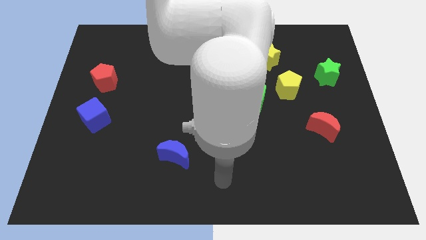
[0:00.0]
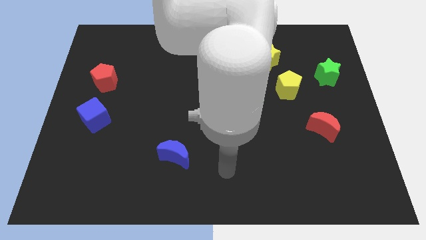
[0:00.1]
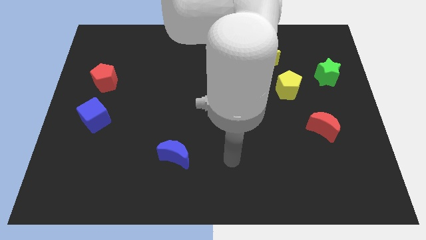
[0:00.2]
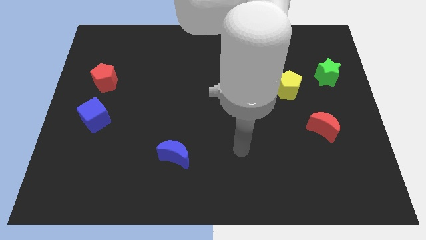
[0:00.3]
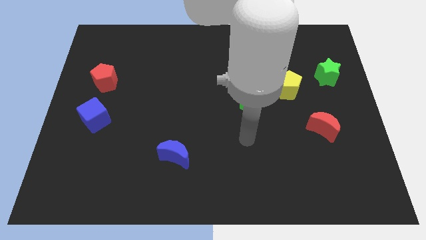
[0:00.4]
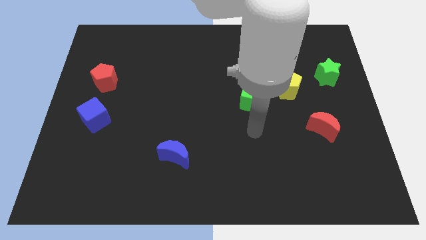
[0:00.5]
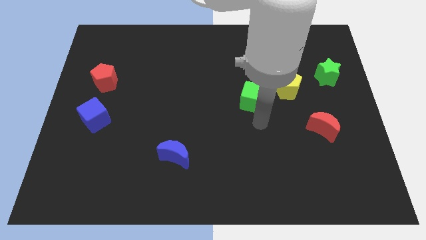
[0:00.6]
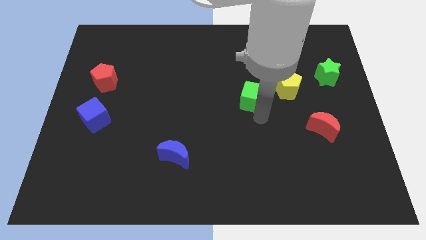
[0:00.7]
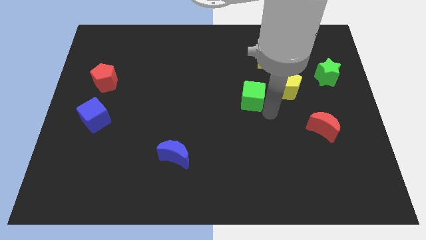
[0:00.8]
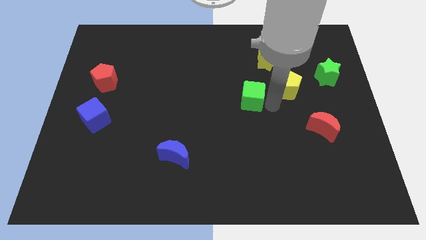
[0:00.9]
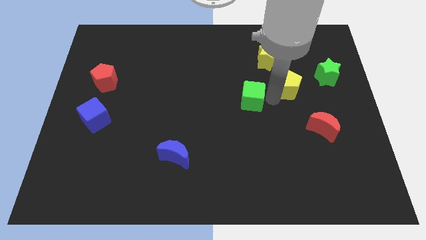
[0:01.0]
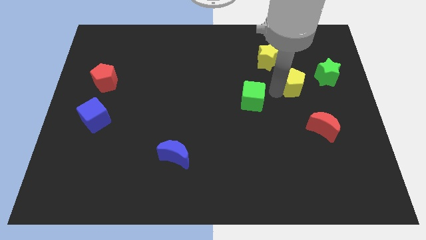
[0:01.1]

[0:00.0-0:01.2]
pull the green cube apart from the yellow pentagon

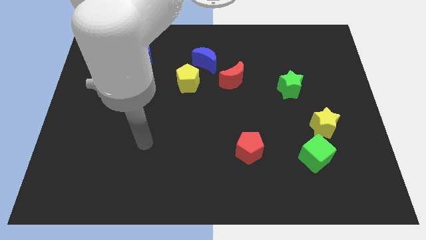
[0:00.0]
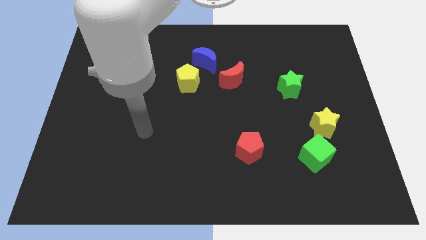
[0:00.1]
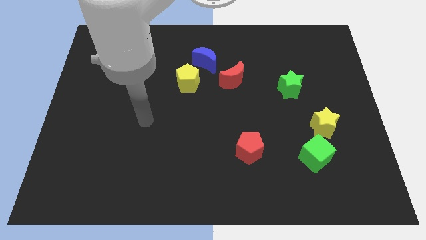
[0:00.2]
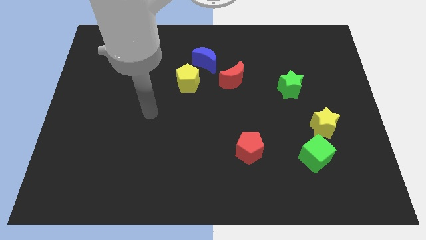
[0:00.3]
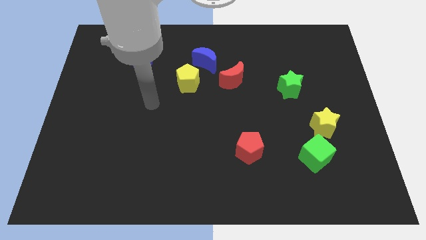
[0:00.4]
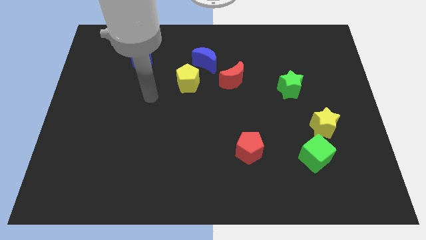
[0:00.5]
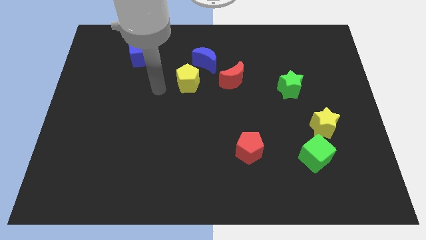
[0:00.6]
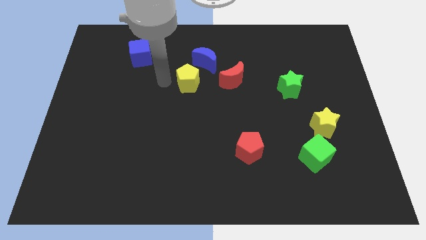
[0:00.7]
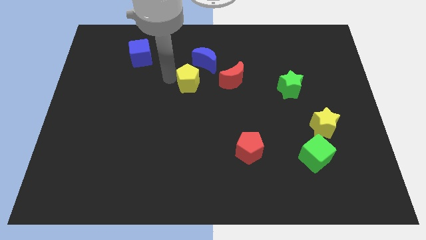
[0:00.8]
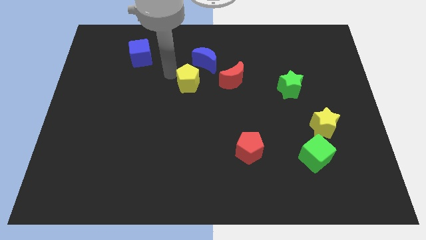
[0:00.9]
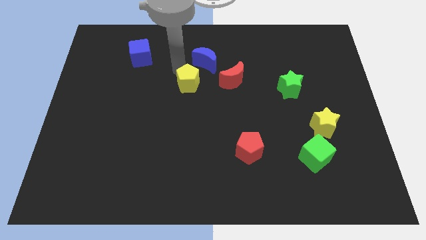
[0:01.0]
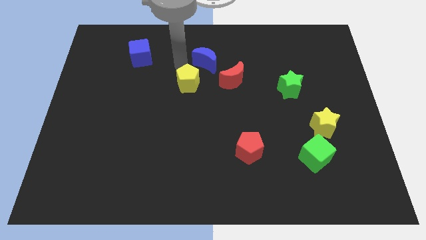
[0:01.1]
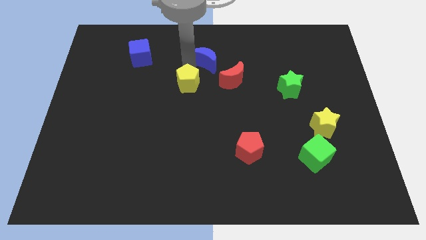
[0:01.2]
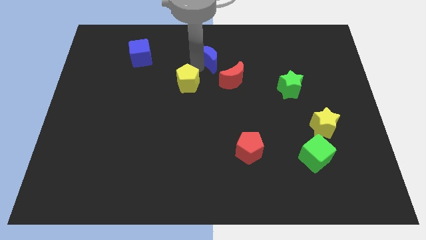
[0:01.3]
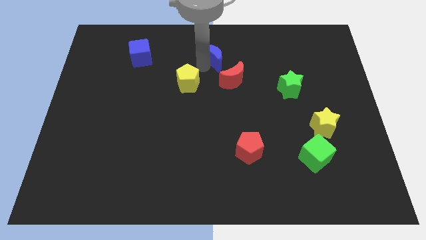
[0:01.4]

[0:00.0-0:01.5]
separate the yellow pentagon from the blue moon

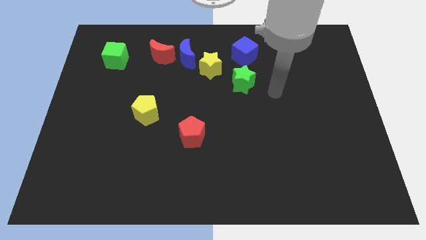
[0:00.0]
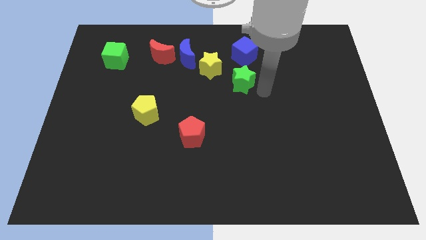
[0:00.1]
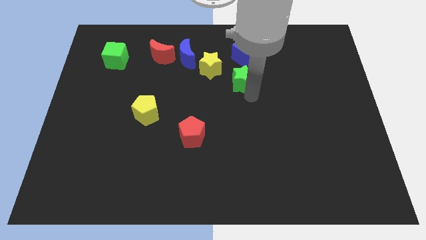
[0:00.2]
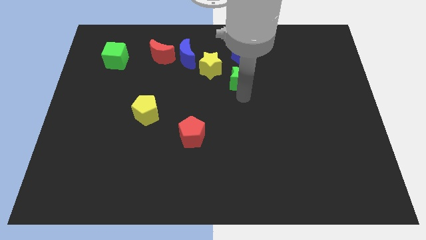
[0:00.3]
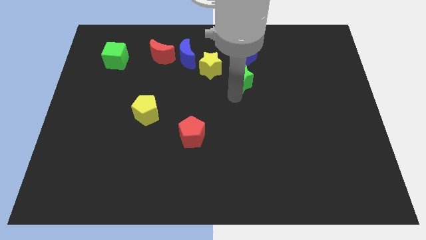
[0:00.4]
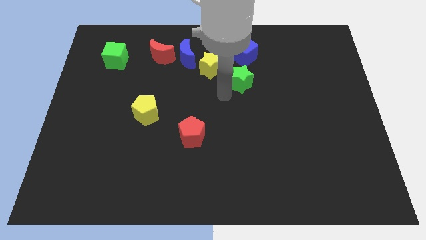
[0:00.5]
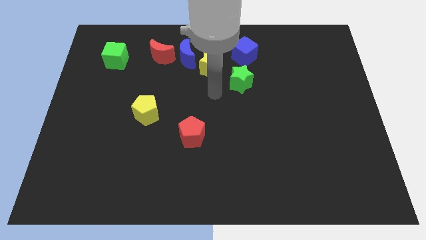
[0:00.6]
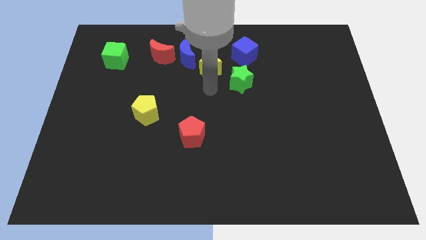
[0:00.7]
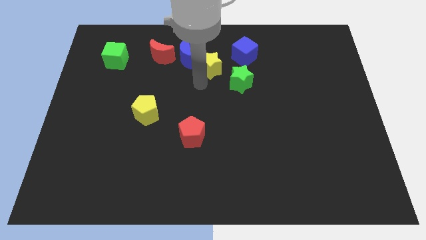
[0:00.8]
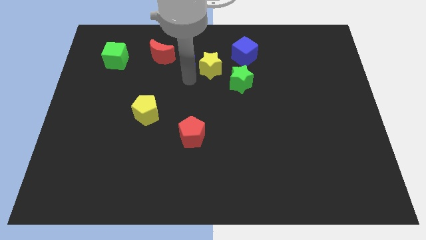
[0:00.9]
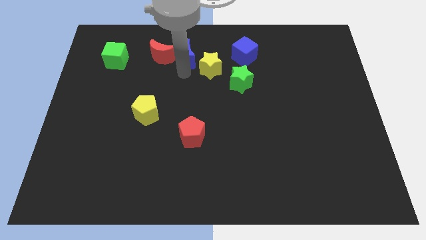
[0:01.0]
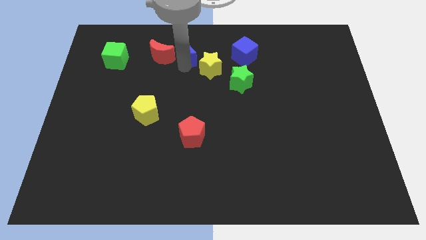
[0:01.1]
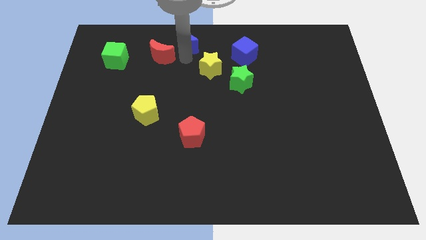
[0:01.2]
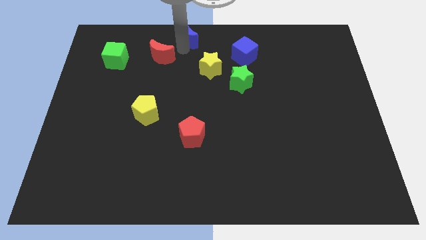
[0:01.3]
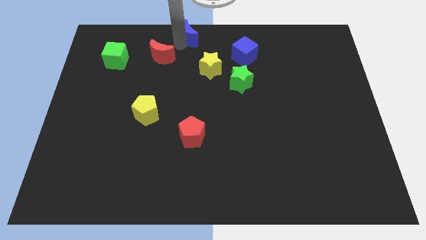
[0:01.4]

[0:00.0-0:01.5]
separate the red moon from the blue moon

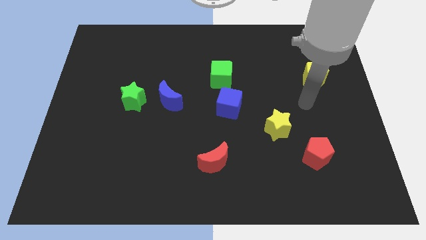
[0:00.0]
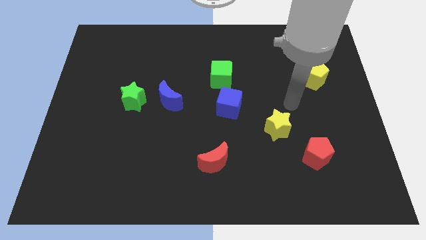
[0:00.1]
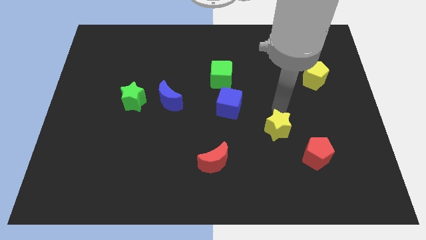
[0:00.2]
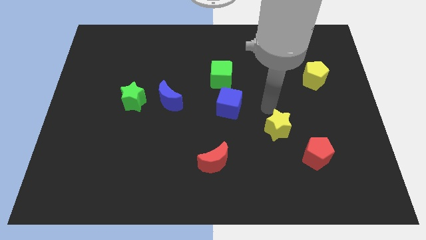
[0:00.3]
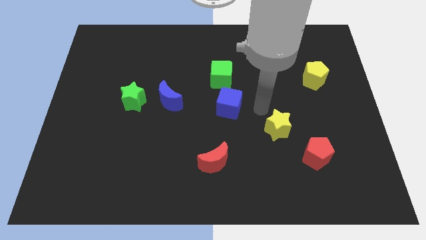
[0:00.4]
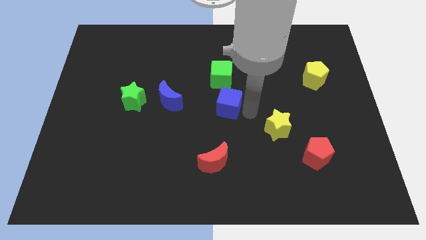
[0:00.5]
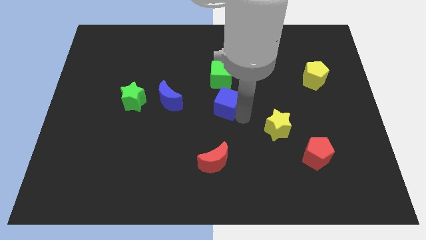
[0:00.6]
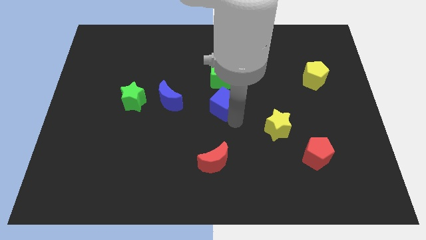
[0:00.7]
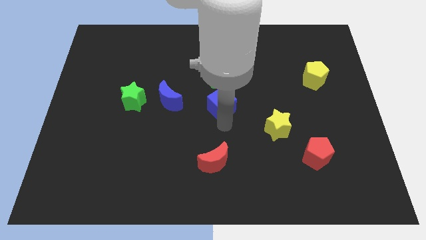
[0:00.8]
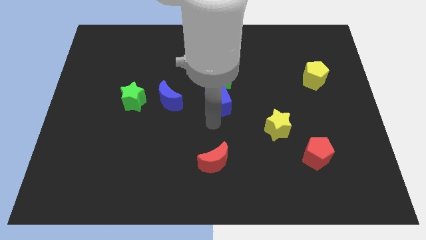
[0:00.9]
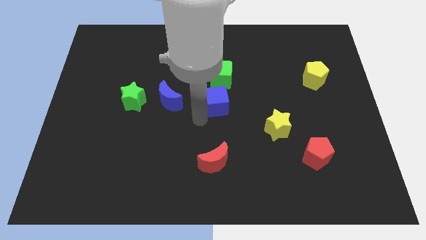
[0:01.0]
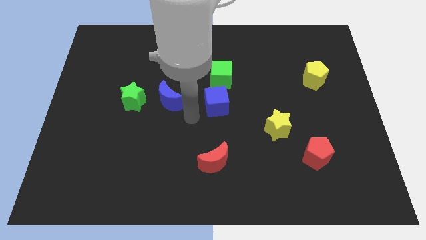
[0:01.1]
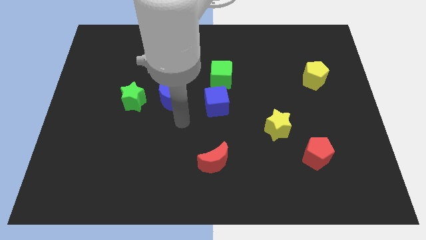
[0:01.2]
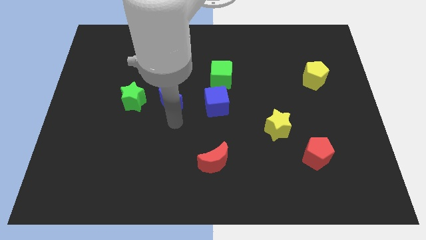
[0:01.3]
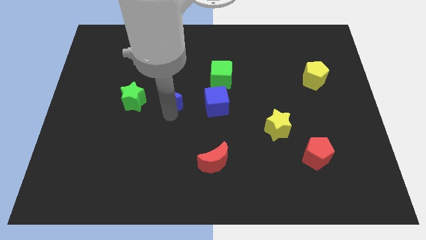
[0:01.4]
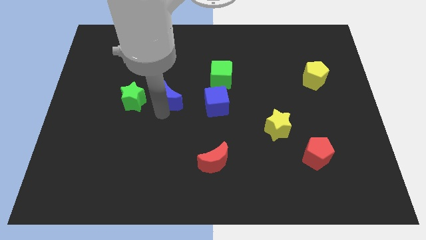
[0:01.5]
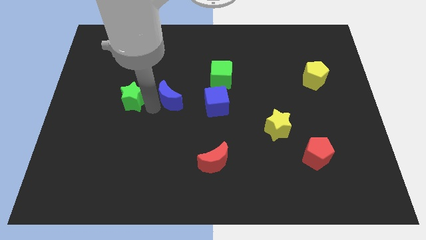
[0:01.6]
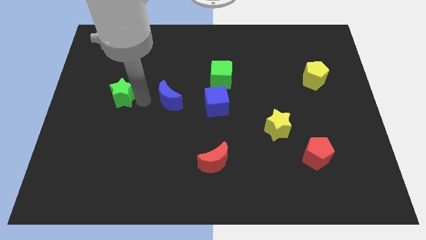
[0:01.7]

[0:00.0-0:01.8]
separate the blue moon from the green star

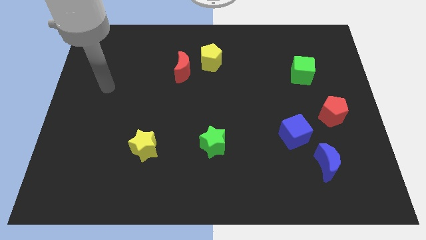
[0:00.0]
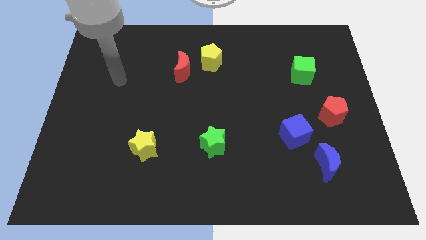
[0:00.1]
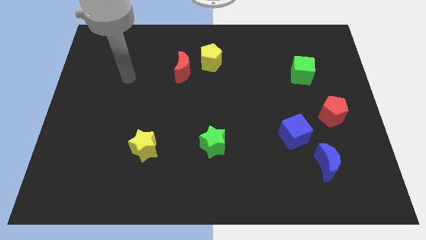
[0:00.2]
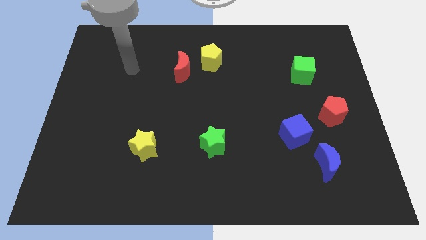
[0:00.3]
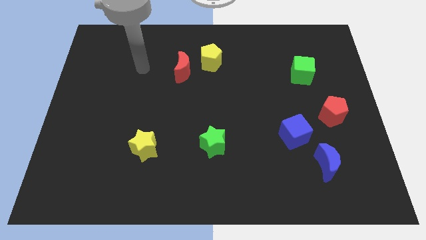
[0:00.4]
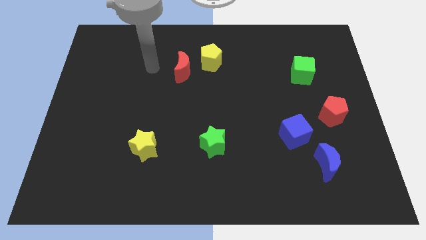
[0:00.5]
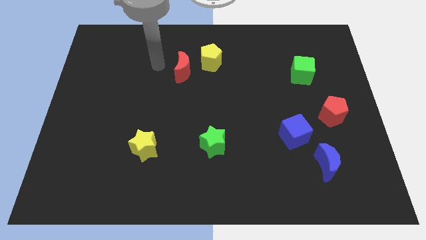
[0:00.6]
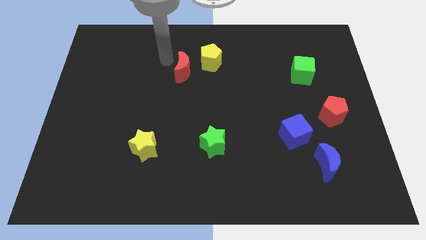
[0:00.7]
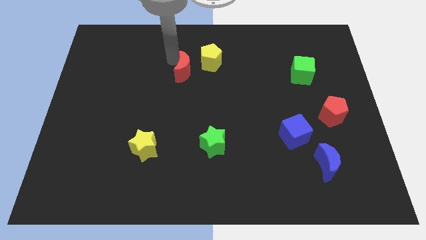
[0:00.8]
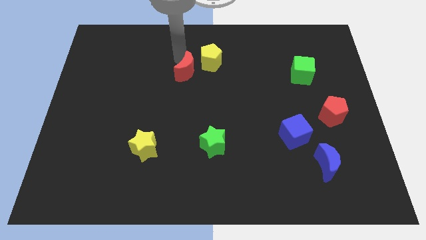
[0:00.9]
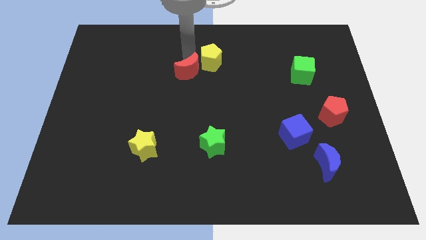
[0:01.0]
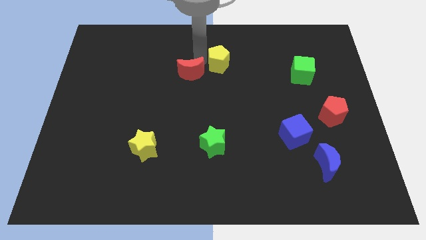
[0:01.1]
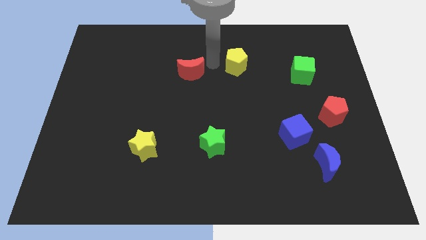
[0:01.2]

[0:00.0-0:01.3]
pull the red moon apart from the yellow pentagon

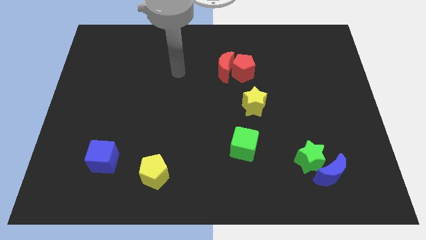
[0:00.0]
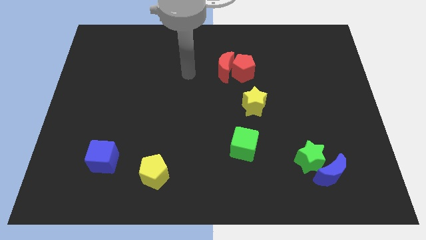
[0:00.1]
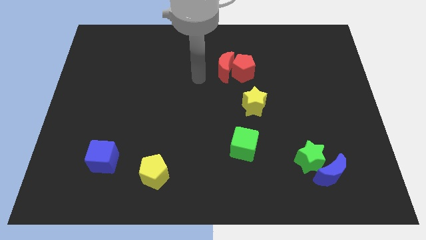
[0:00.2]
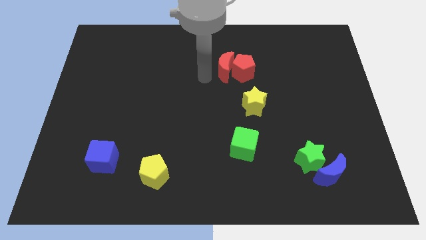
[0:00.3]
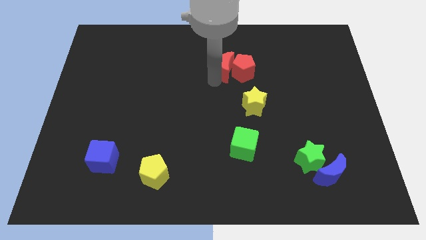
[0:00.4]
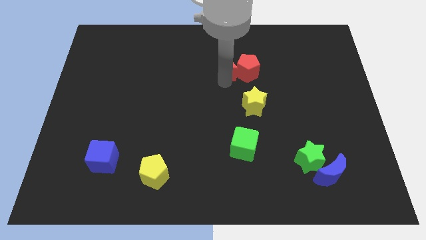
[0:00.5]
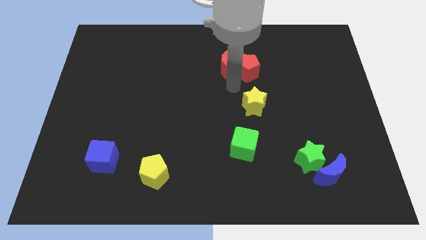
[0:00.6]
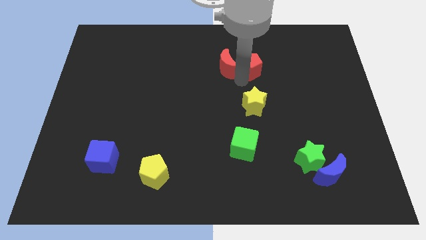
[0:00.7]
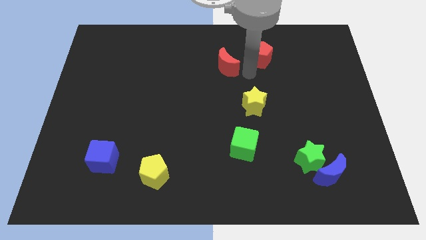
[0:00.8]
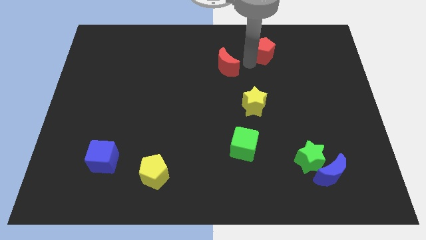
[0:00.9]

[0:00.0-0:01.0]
separate the red moon from the red pentagon

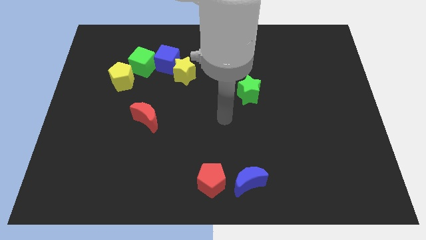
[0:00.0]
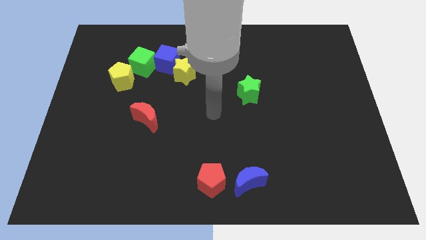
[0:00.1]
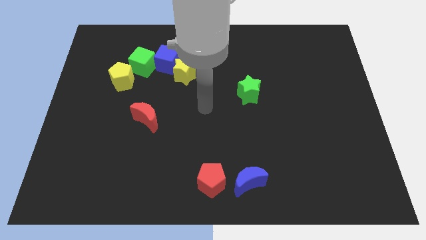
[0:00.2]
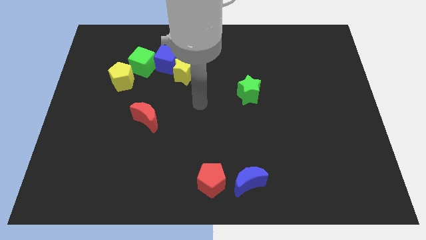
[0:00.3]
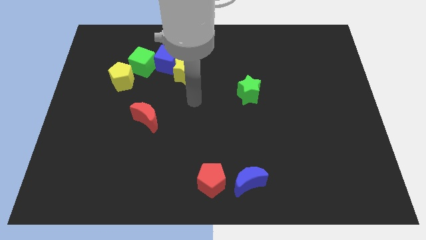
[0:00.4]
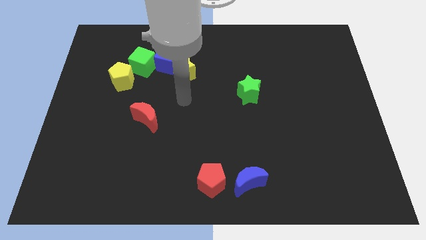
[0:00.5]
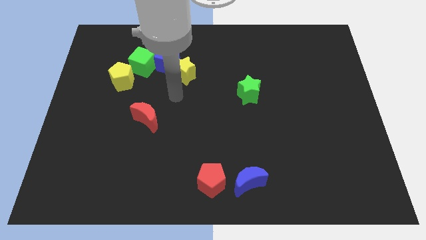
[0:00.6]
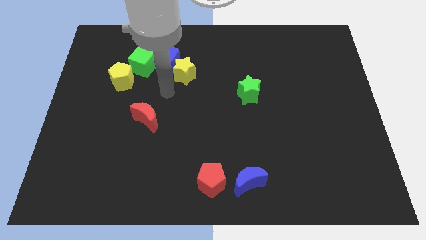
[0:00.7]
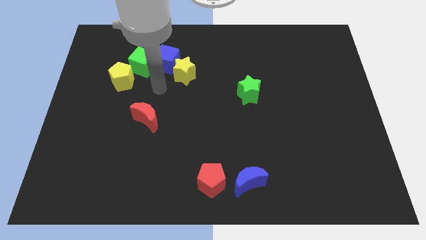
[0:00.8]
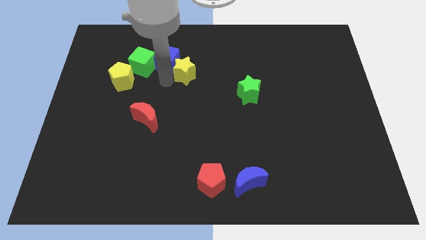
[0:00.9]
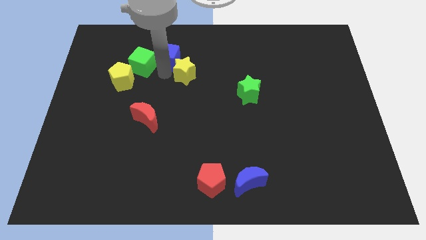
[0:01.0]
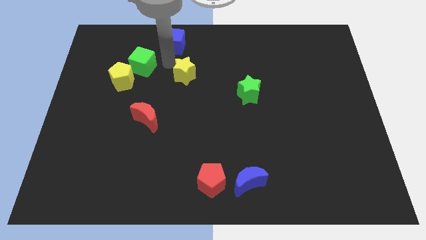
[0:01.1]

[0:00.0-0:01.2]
separate the yellow star from the blue cube
